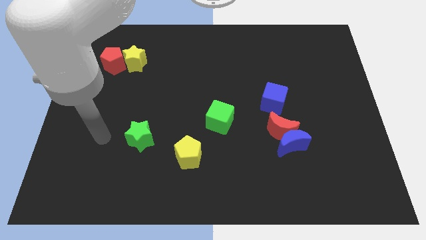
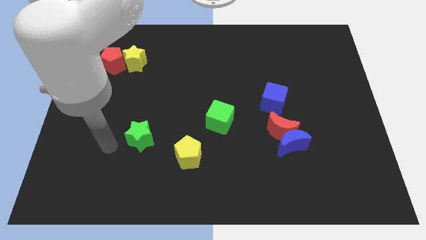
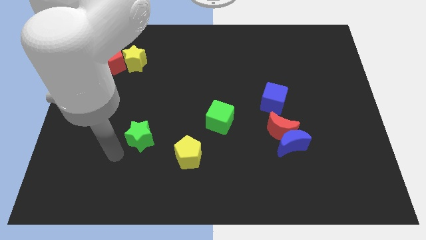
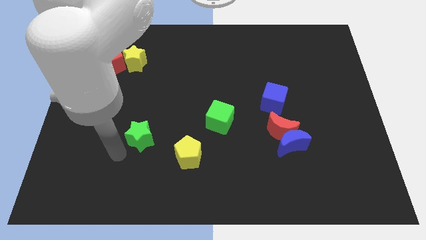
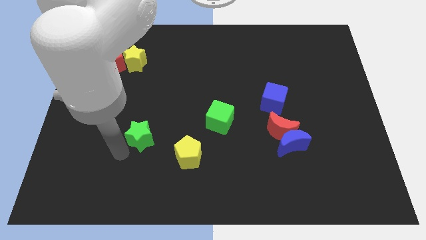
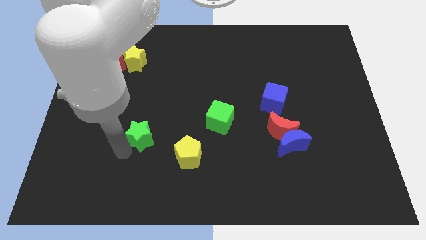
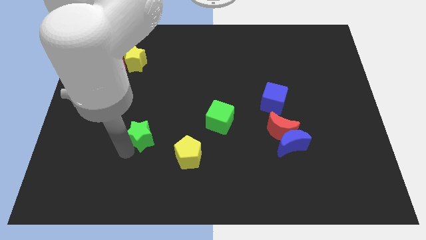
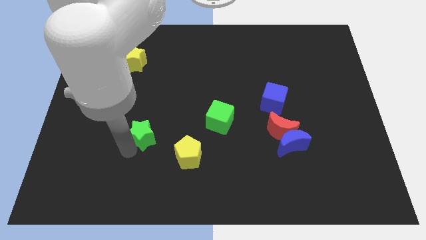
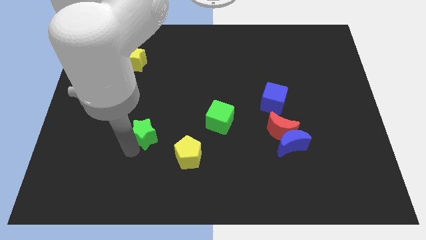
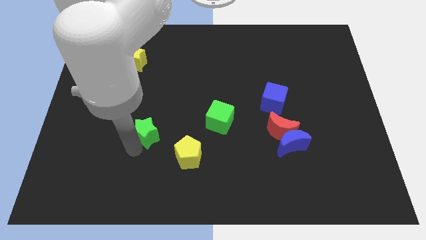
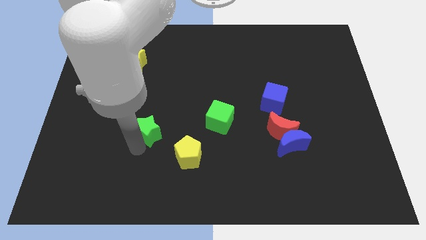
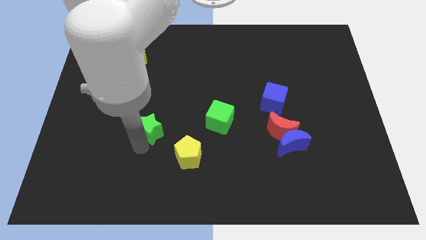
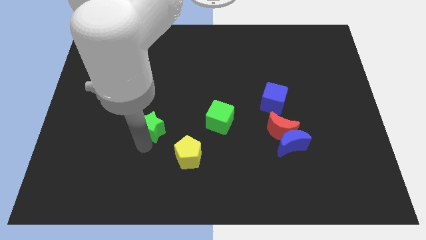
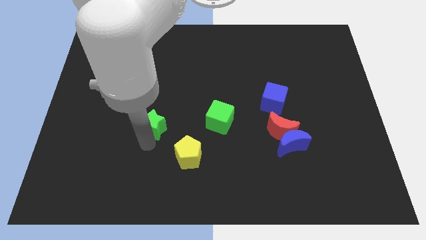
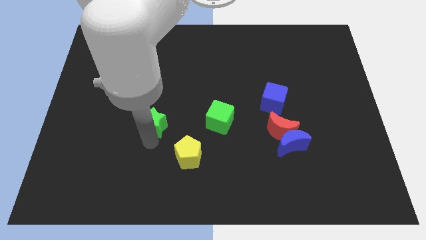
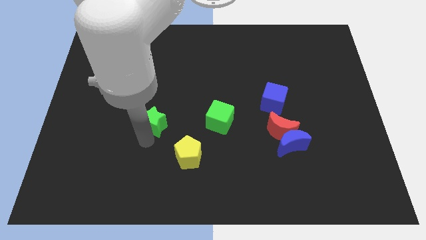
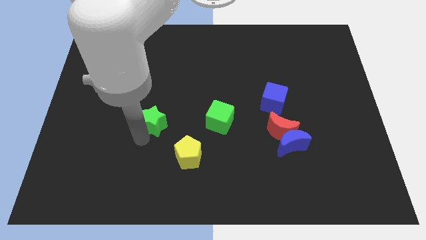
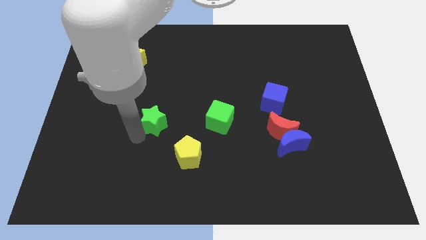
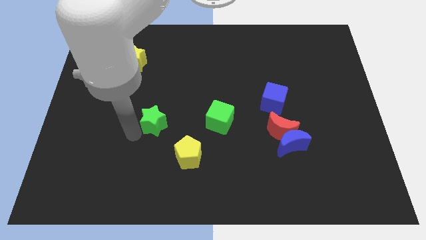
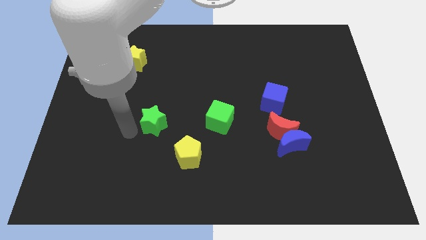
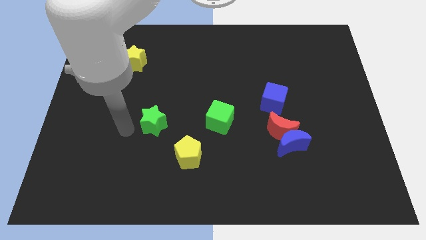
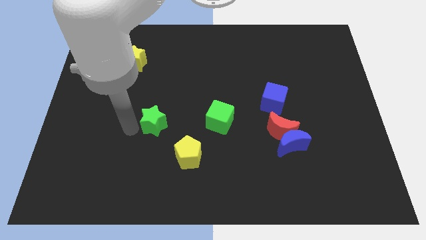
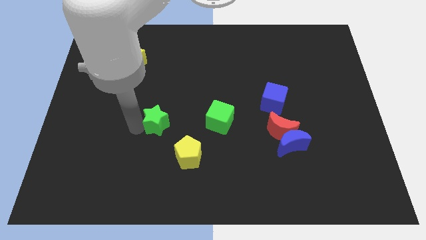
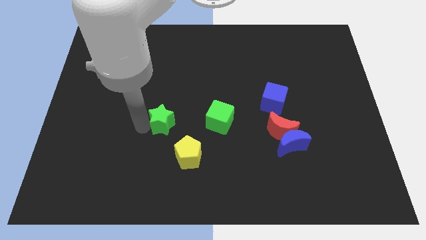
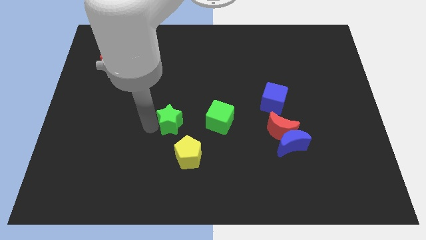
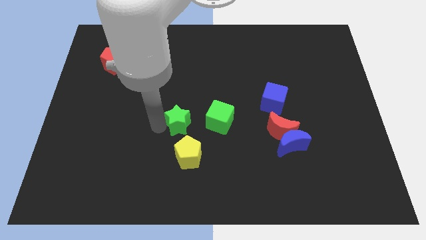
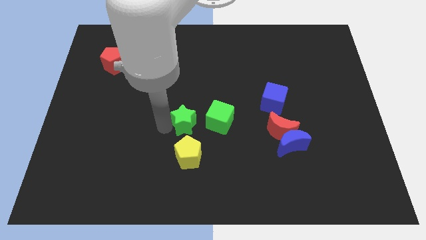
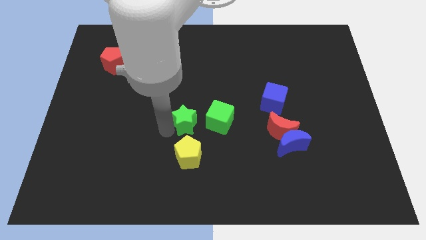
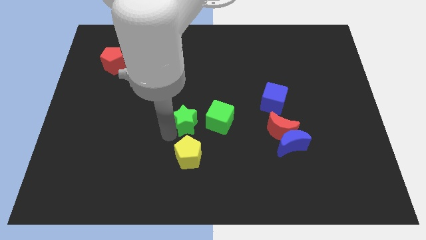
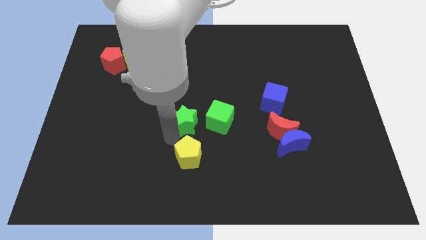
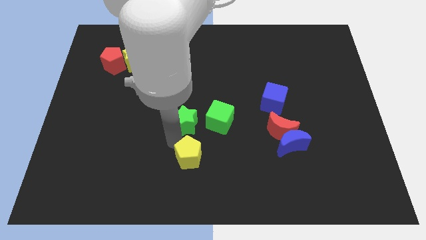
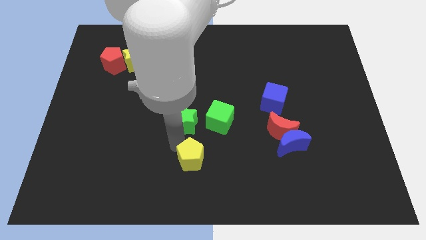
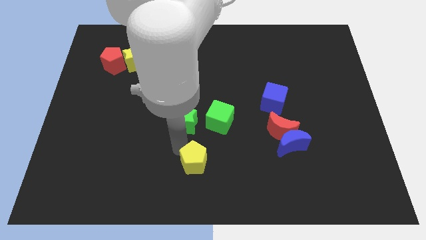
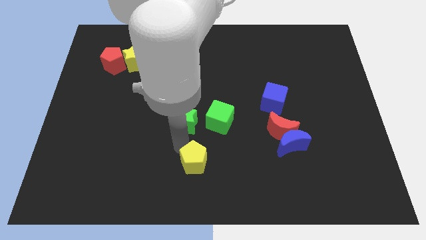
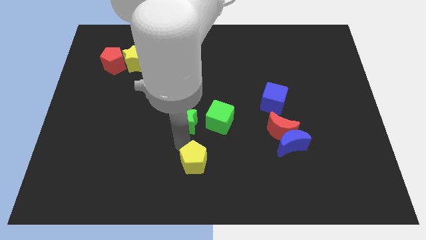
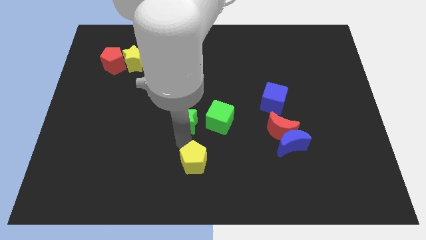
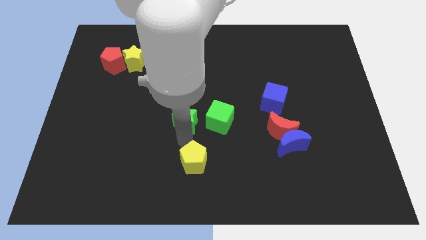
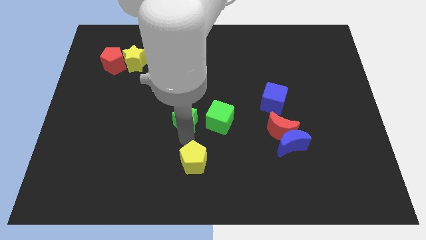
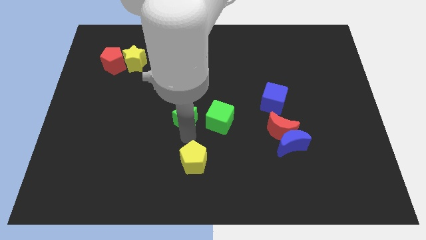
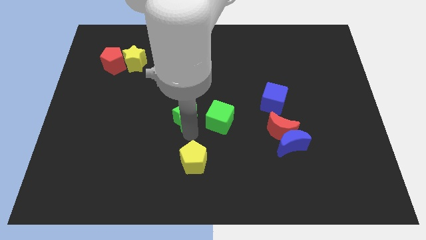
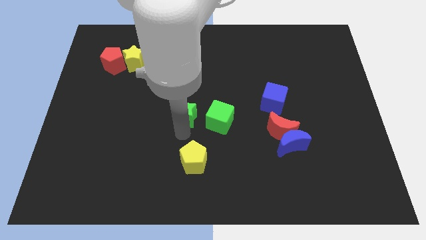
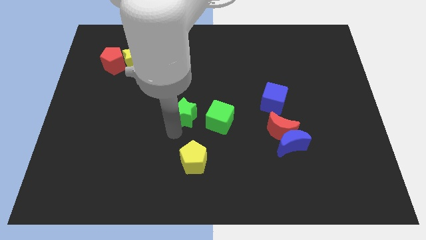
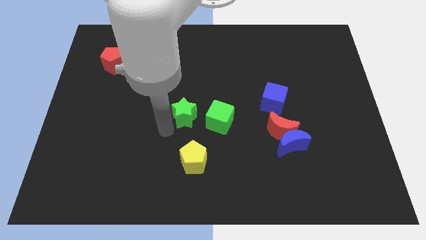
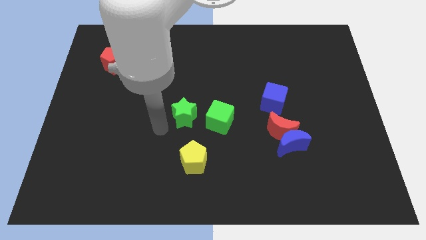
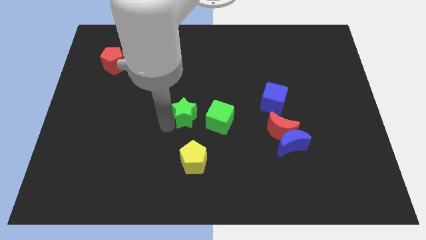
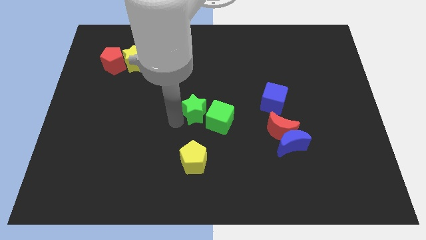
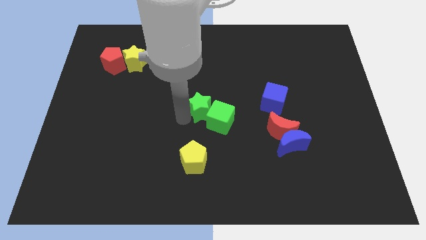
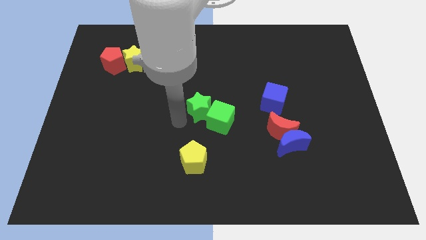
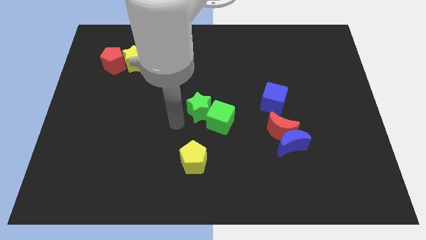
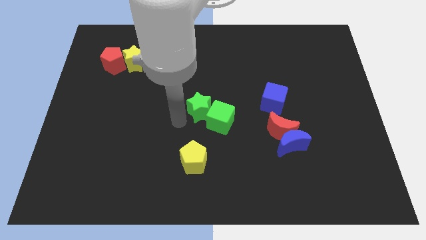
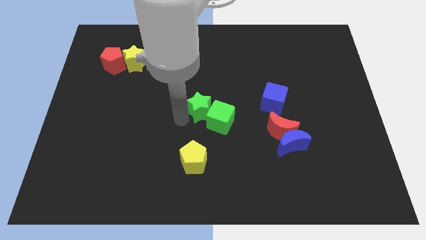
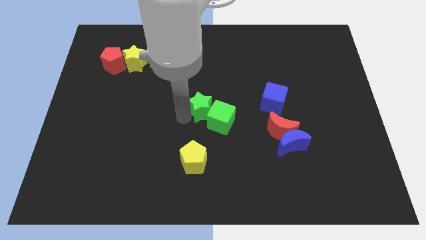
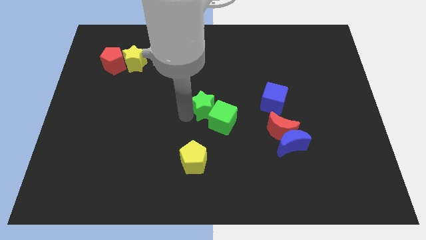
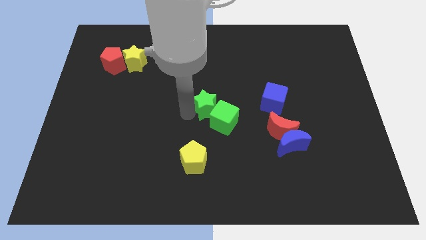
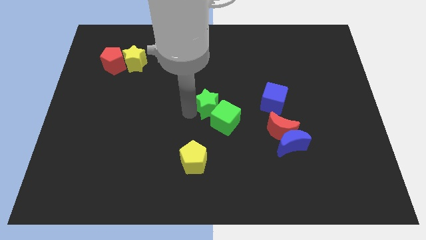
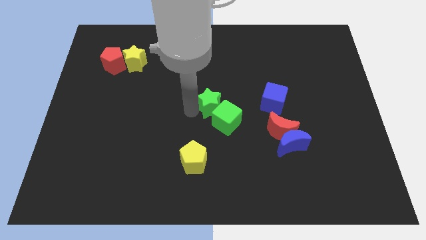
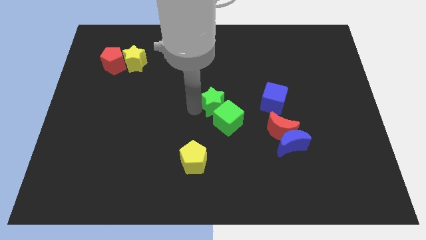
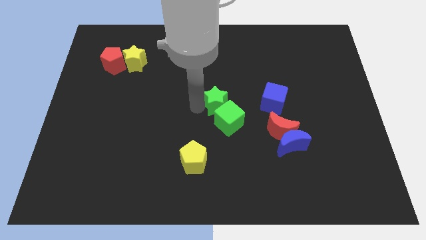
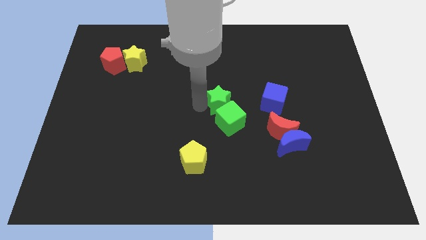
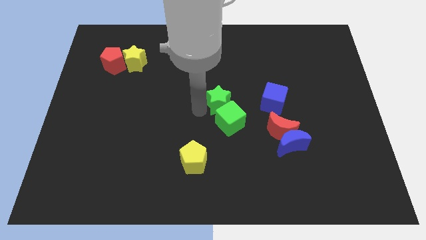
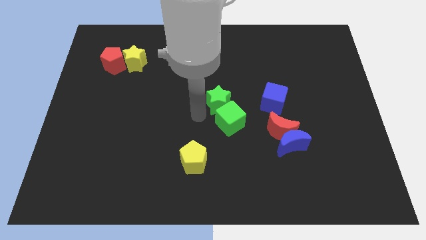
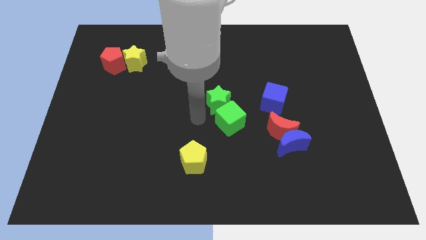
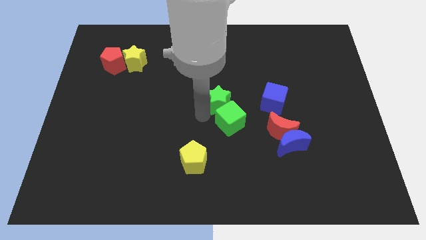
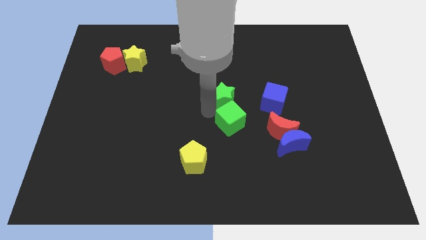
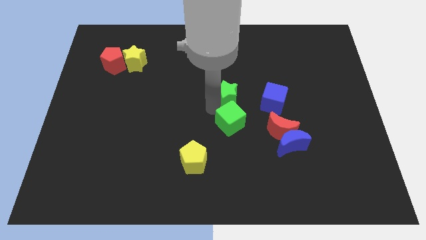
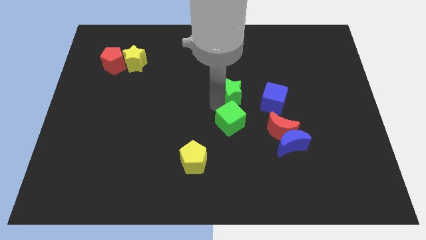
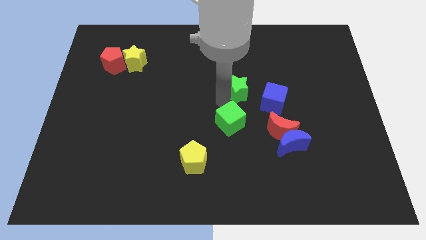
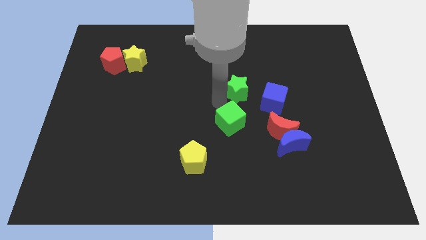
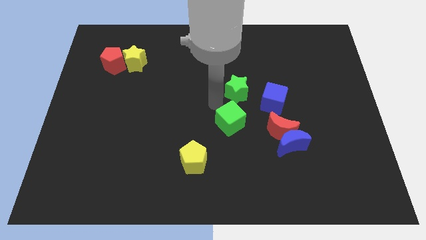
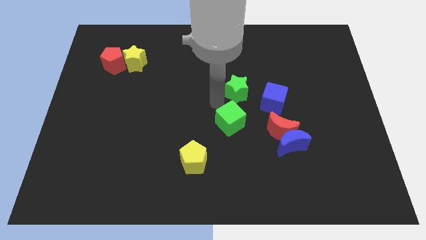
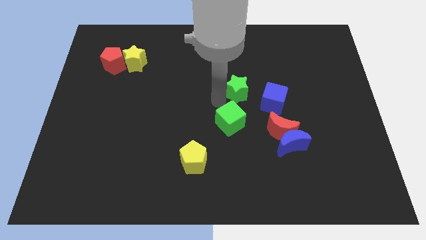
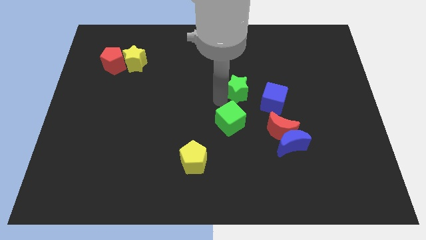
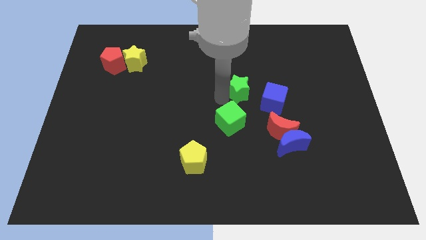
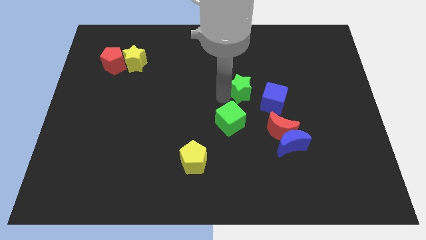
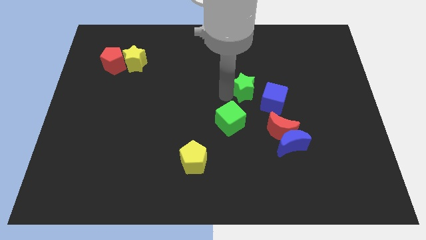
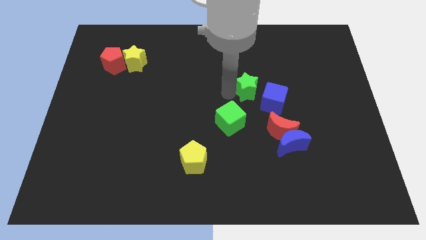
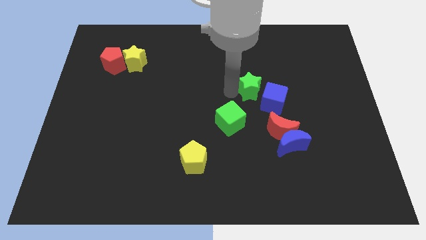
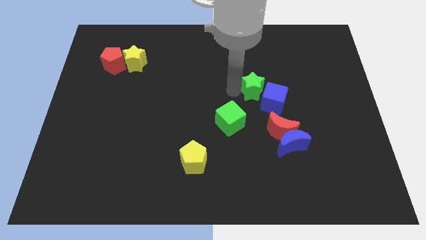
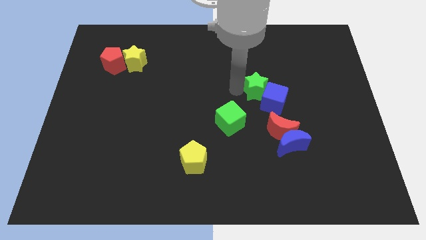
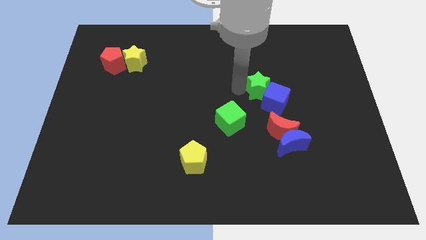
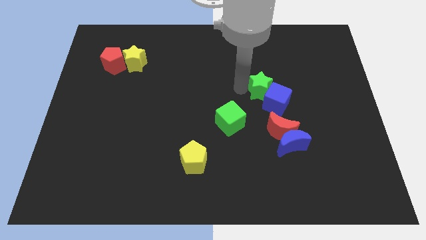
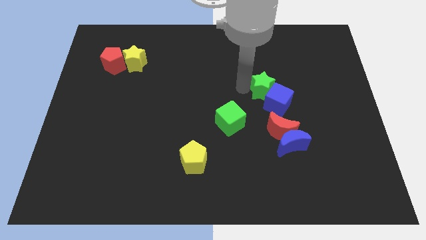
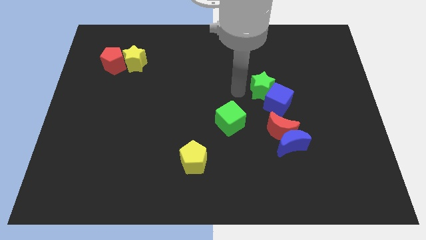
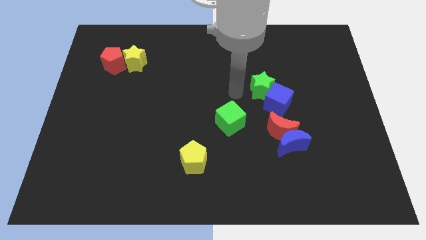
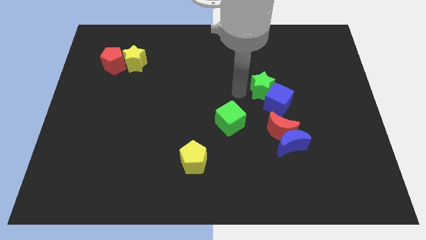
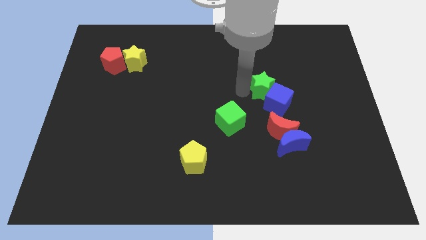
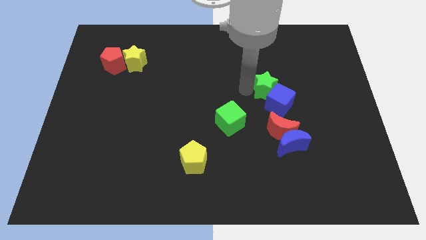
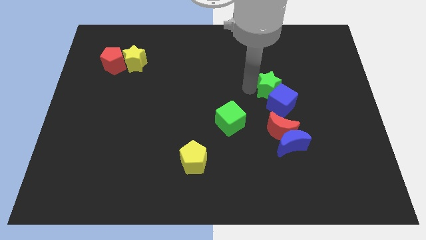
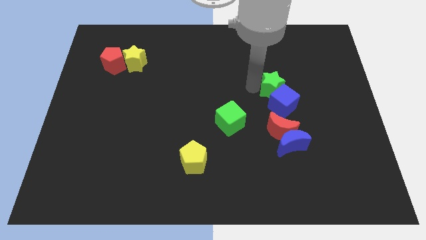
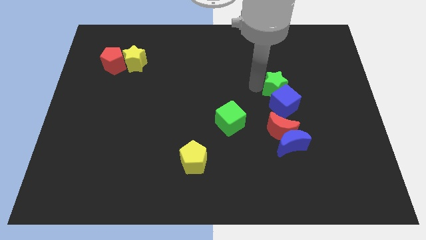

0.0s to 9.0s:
slide the green star diagonally up and to the right of the blue cube
